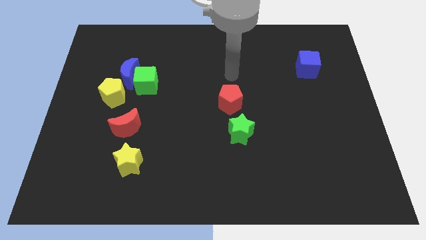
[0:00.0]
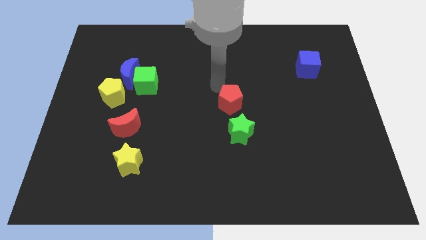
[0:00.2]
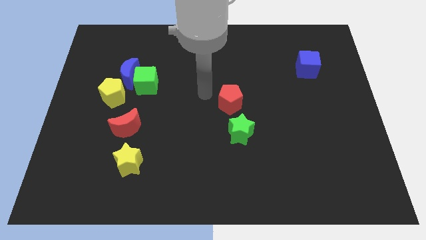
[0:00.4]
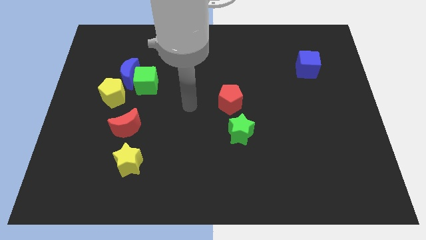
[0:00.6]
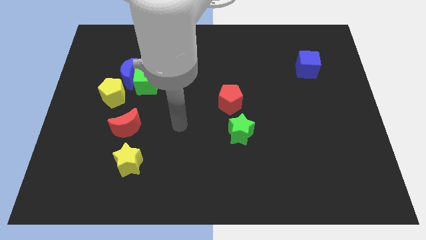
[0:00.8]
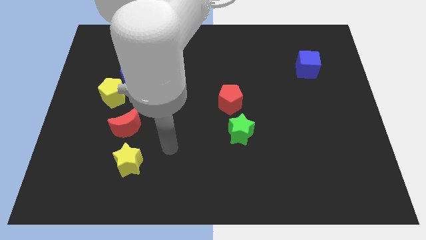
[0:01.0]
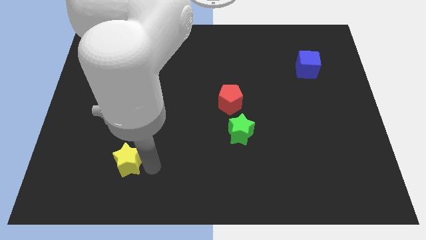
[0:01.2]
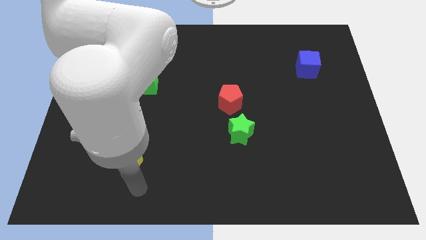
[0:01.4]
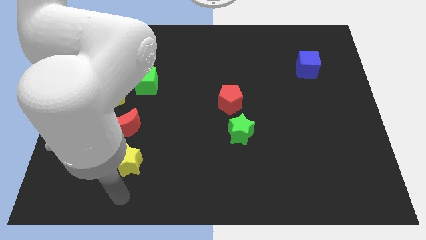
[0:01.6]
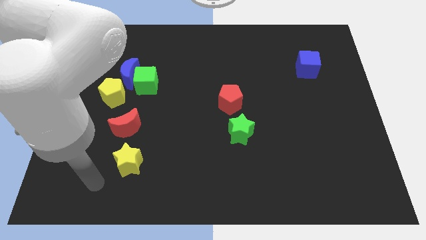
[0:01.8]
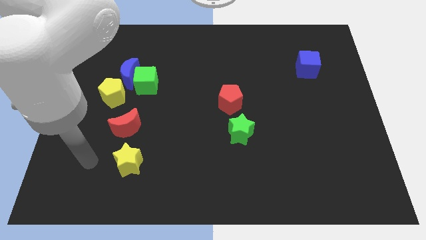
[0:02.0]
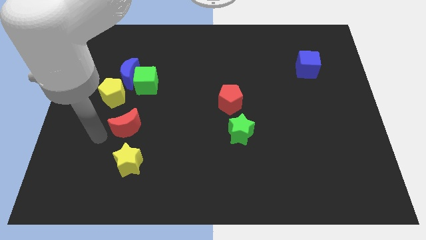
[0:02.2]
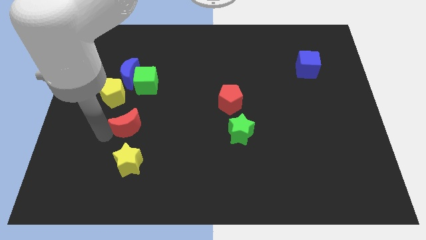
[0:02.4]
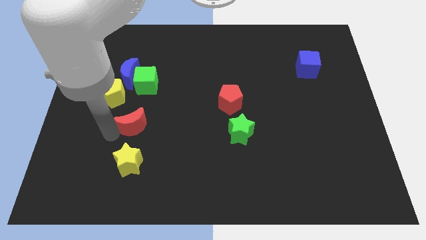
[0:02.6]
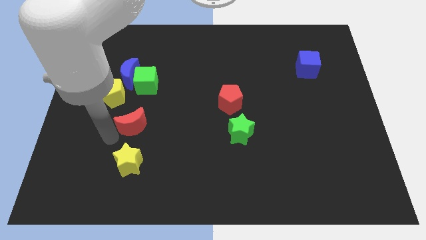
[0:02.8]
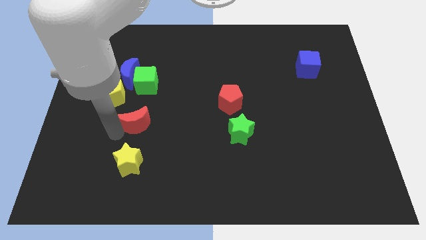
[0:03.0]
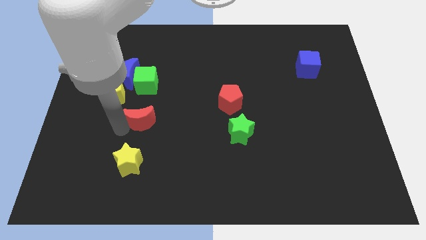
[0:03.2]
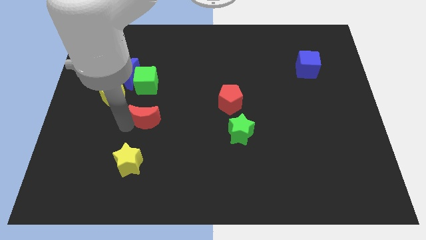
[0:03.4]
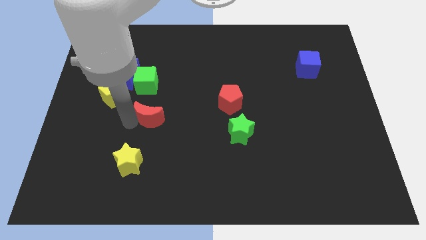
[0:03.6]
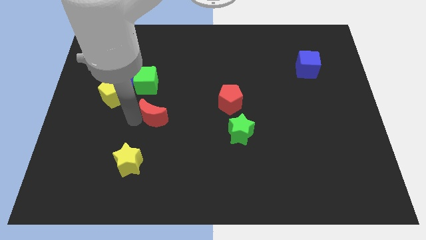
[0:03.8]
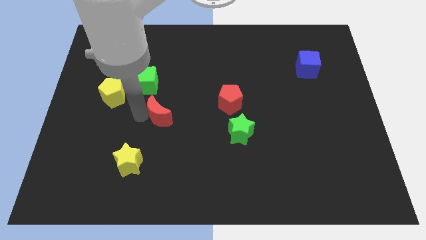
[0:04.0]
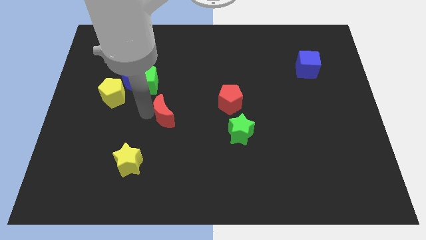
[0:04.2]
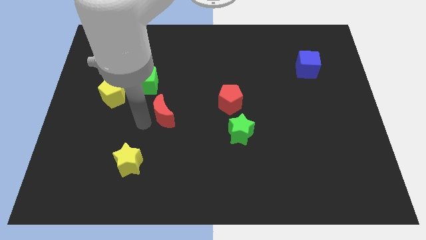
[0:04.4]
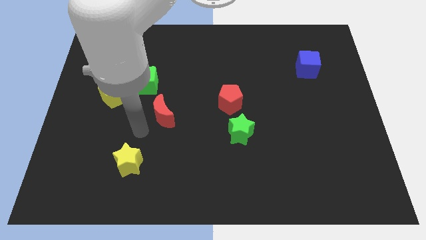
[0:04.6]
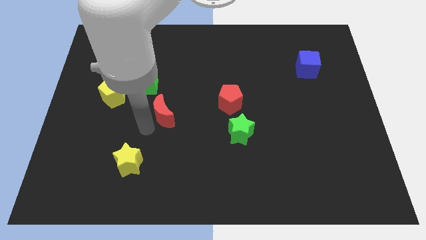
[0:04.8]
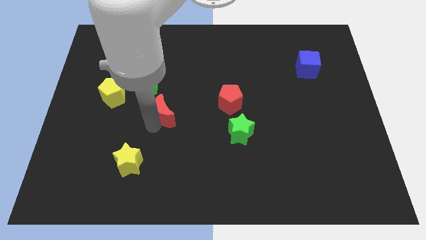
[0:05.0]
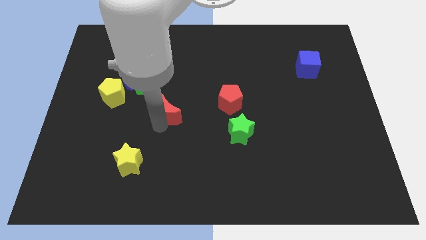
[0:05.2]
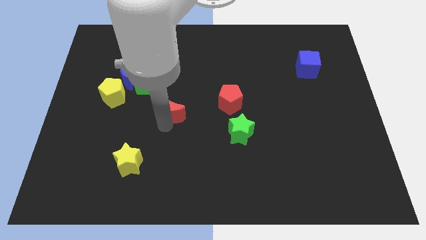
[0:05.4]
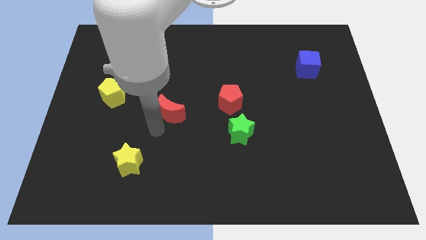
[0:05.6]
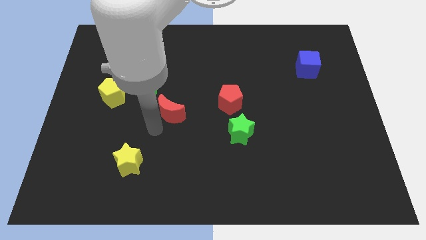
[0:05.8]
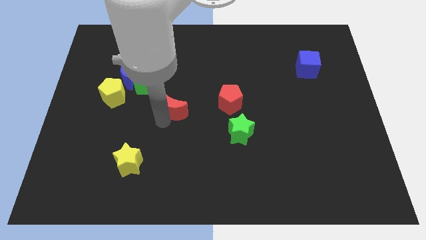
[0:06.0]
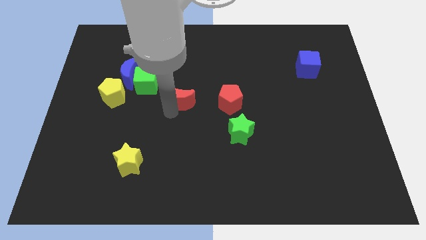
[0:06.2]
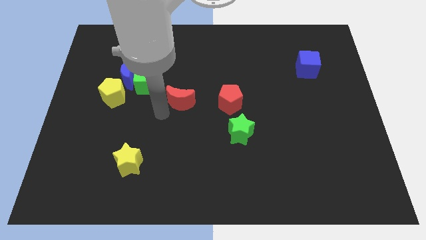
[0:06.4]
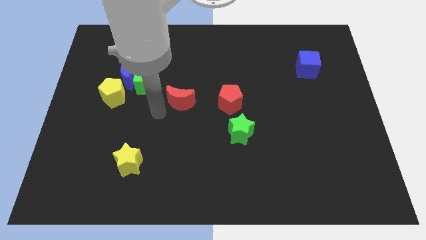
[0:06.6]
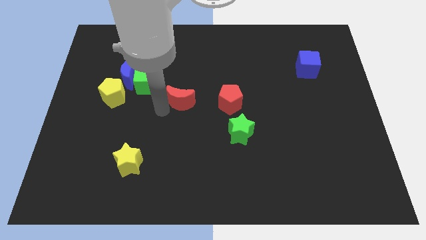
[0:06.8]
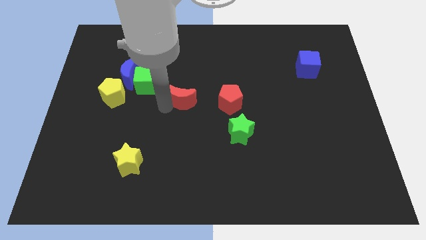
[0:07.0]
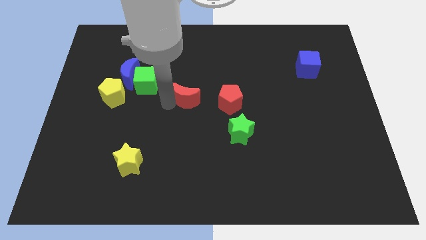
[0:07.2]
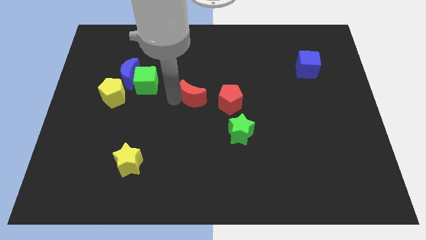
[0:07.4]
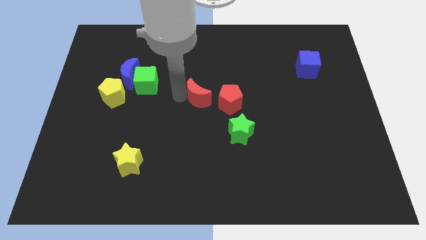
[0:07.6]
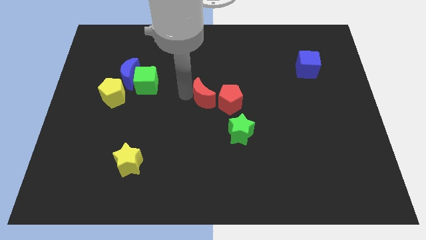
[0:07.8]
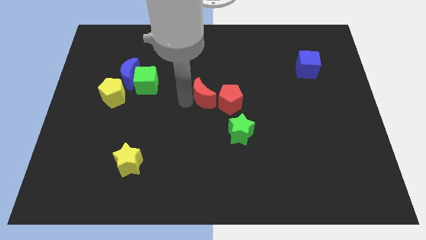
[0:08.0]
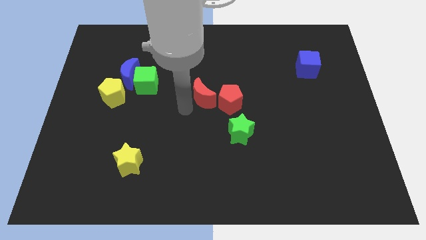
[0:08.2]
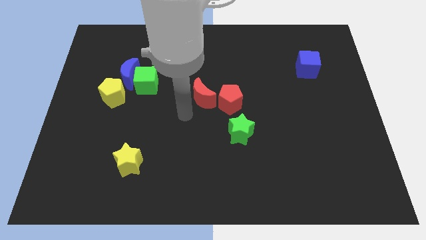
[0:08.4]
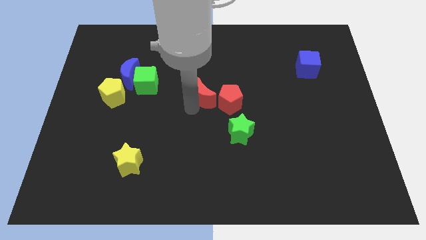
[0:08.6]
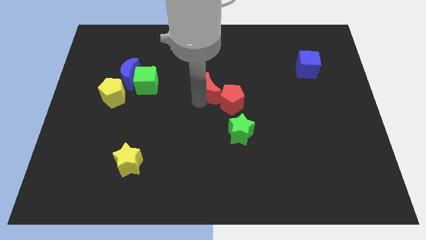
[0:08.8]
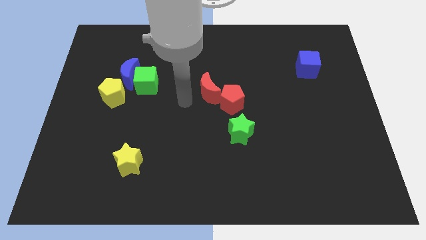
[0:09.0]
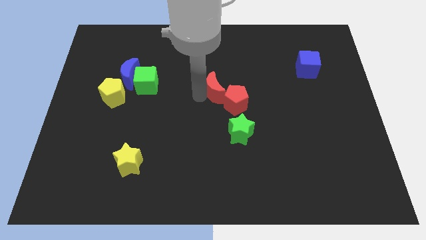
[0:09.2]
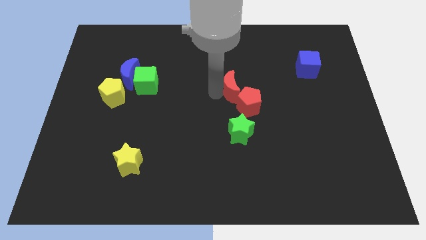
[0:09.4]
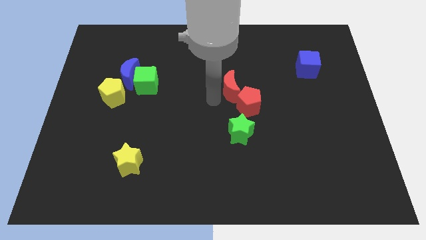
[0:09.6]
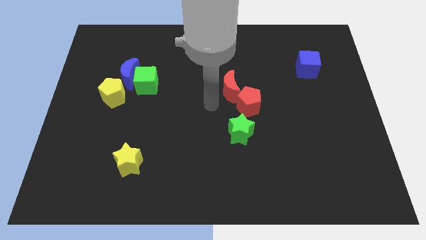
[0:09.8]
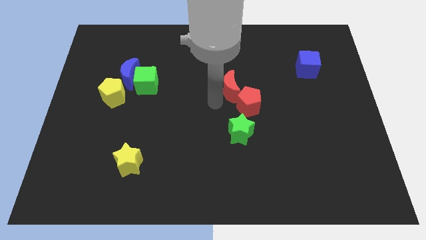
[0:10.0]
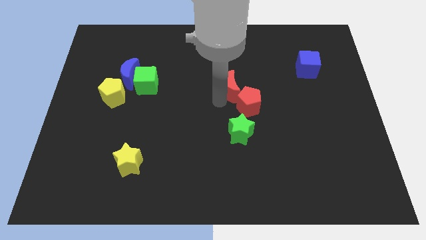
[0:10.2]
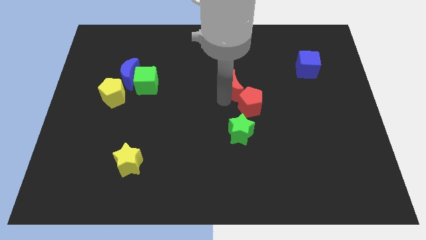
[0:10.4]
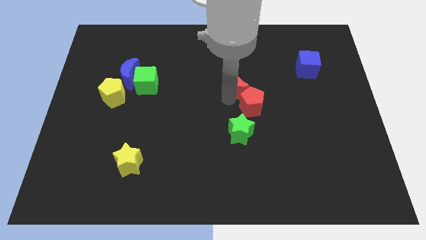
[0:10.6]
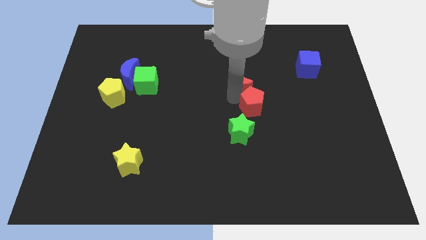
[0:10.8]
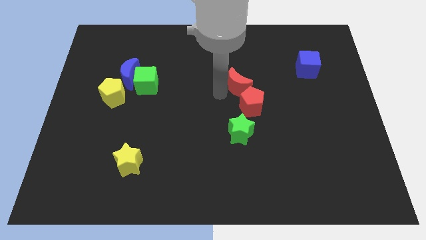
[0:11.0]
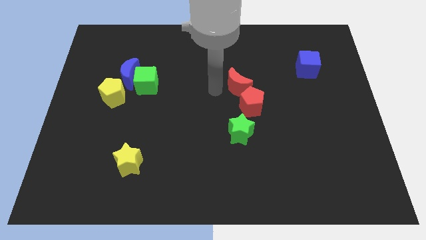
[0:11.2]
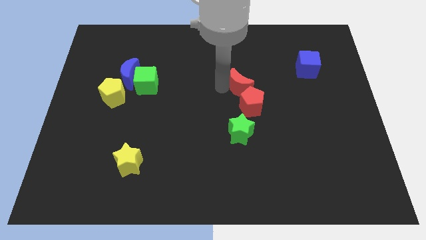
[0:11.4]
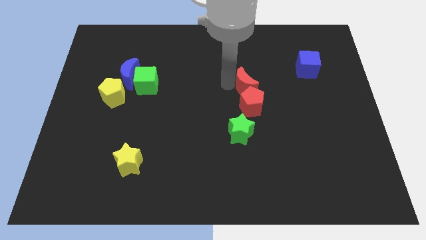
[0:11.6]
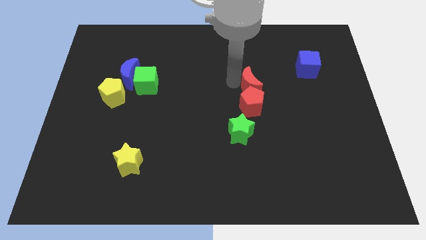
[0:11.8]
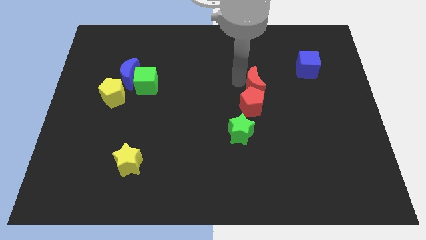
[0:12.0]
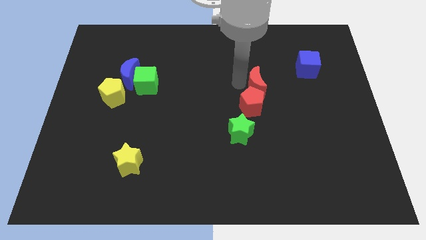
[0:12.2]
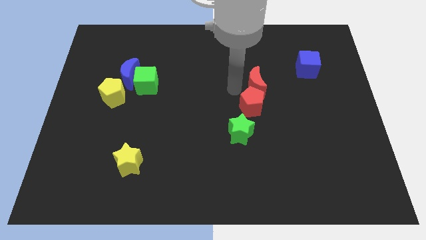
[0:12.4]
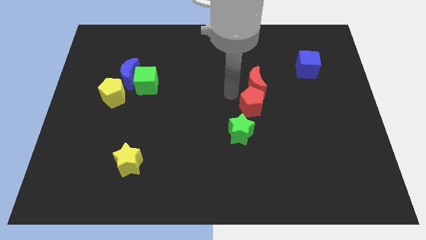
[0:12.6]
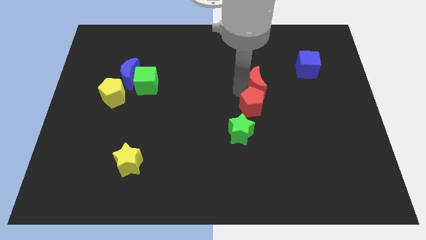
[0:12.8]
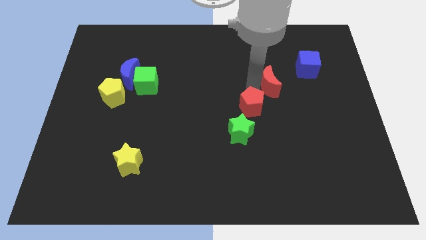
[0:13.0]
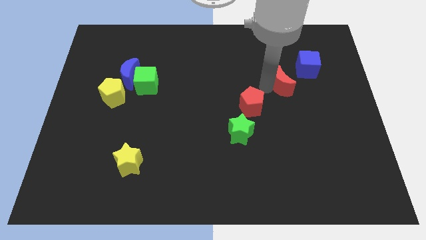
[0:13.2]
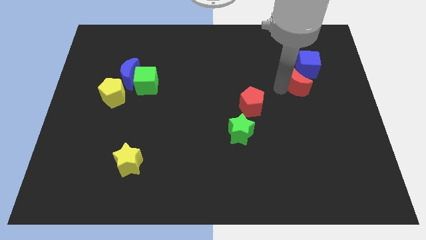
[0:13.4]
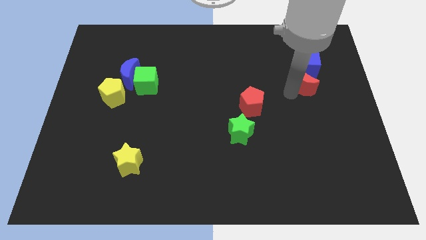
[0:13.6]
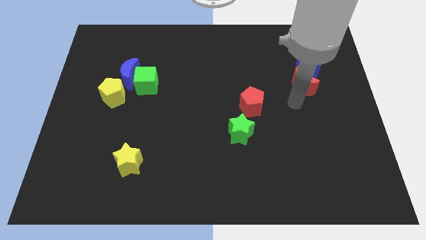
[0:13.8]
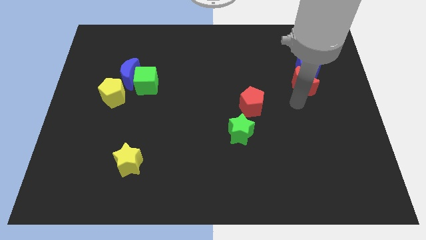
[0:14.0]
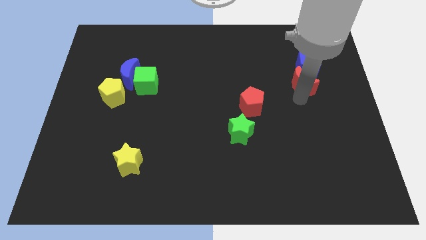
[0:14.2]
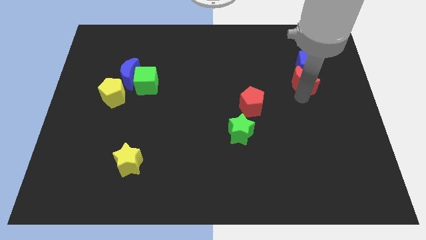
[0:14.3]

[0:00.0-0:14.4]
slide the red moon next to the blue cube

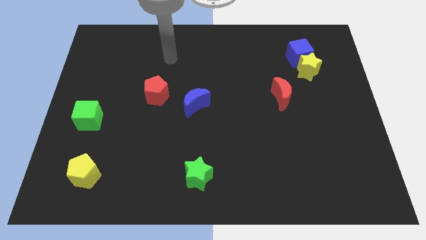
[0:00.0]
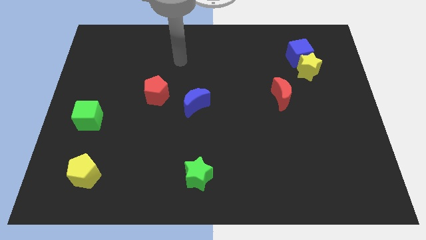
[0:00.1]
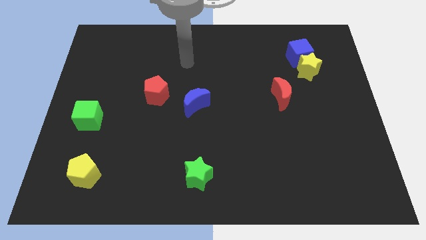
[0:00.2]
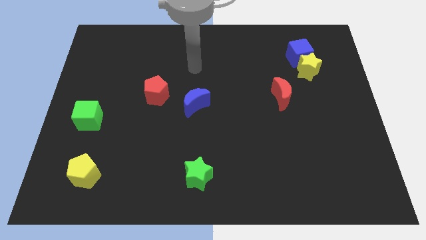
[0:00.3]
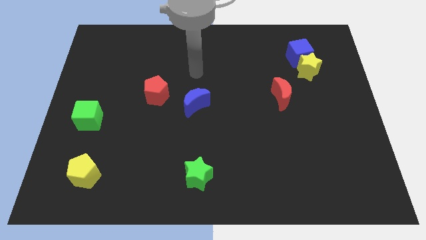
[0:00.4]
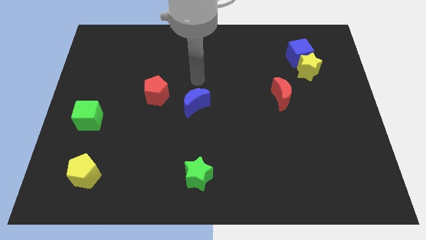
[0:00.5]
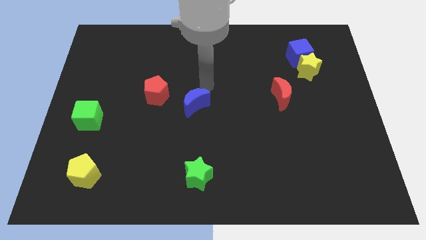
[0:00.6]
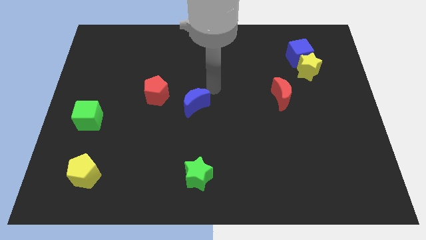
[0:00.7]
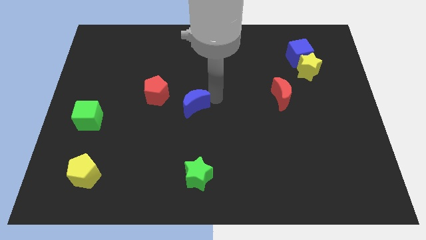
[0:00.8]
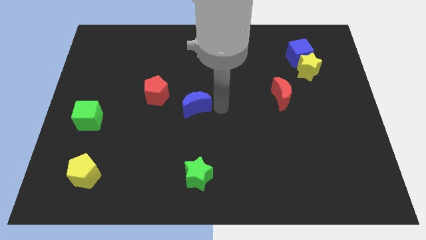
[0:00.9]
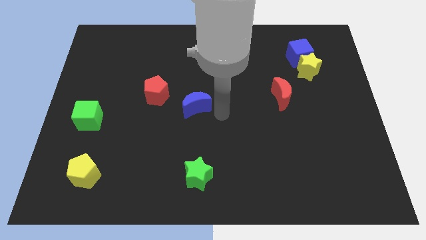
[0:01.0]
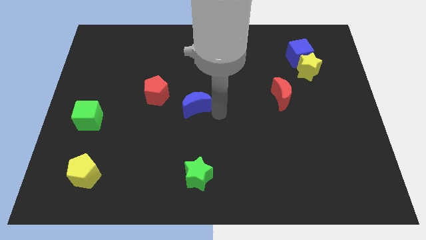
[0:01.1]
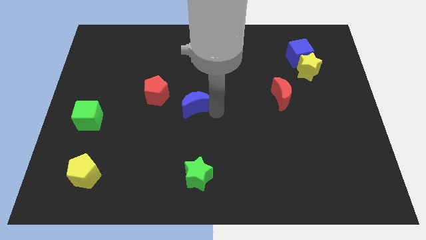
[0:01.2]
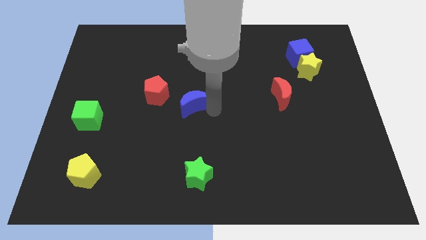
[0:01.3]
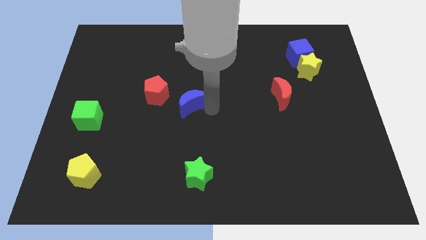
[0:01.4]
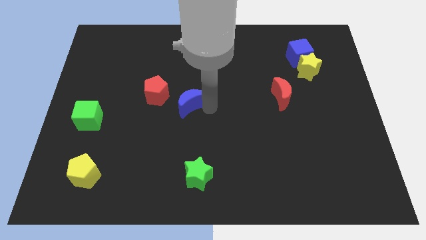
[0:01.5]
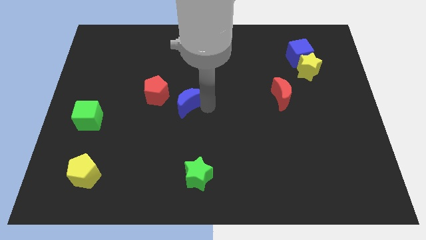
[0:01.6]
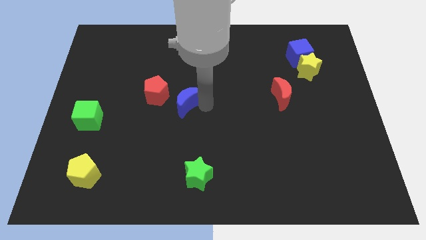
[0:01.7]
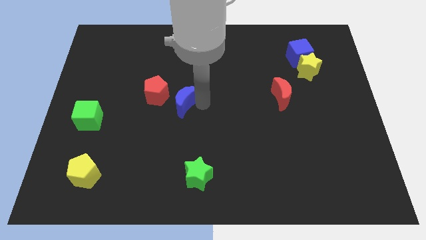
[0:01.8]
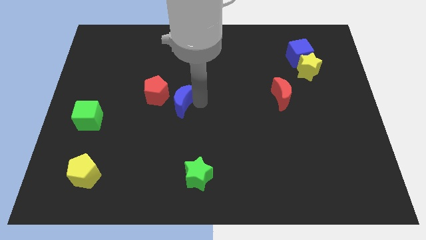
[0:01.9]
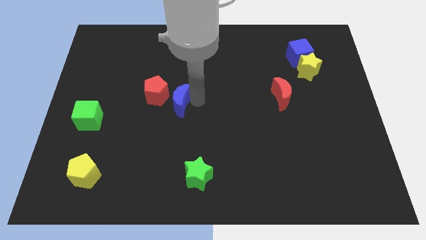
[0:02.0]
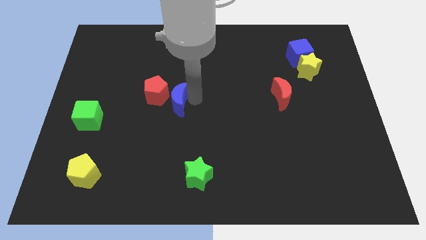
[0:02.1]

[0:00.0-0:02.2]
put the blue moon towards the red pentagon
